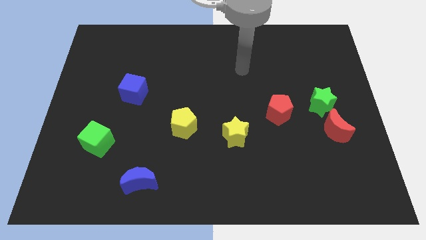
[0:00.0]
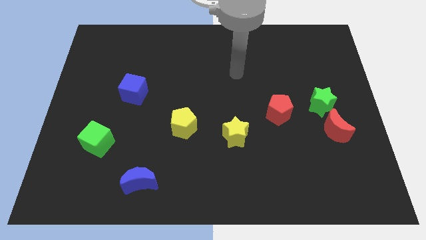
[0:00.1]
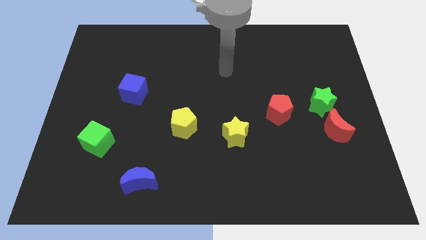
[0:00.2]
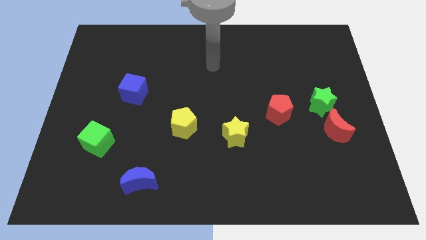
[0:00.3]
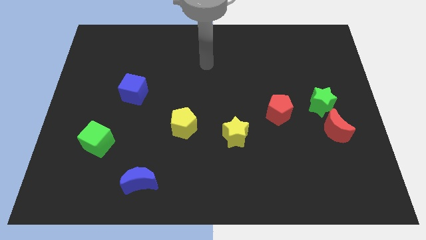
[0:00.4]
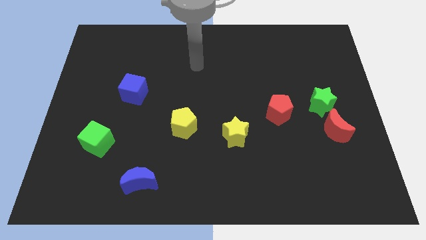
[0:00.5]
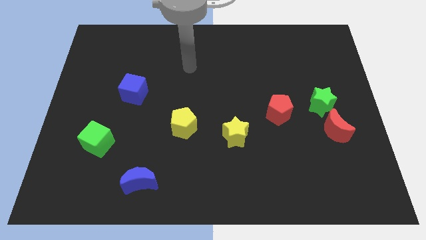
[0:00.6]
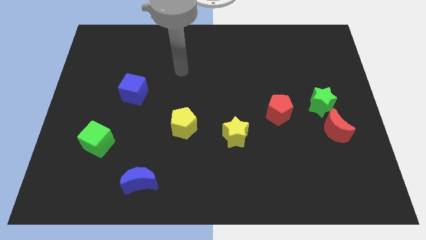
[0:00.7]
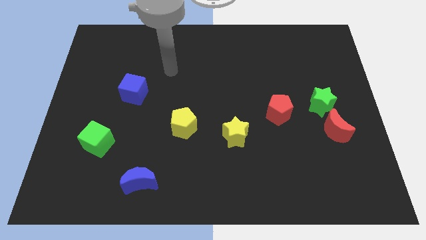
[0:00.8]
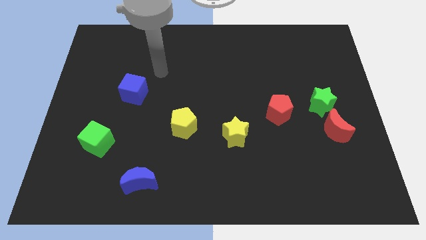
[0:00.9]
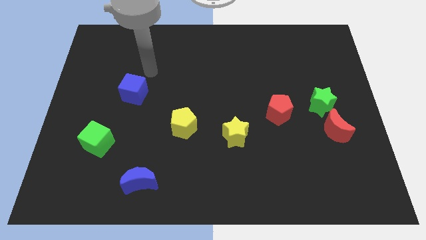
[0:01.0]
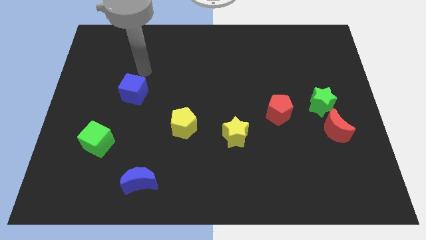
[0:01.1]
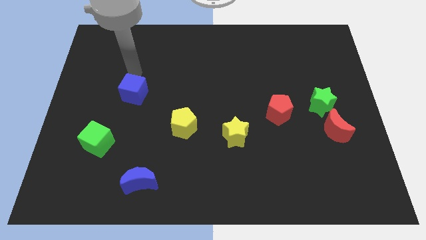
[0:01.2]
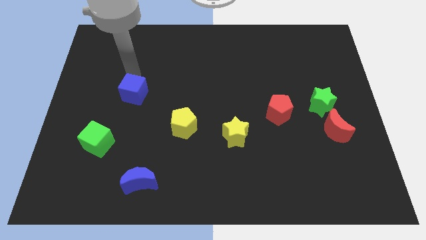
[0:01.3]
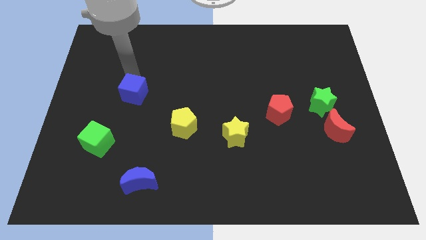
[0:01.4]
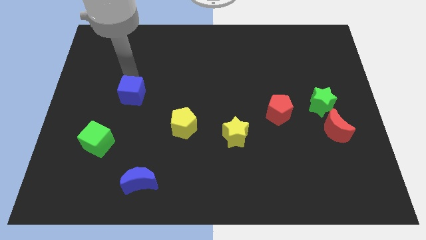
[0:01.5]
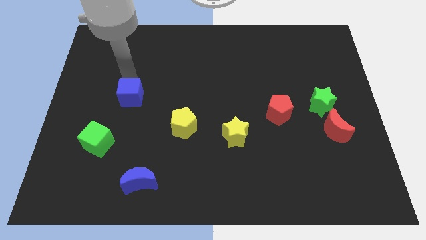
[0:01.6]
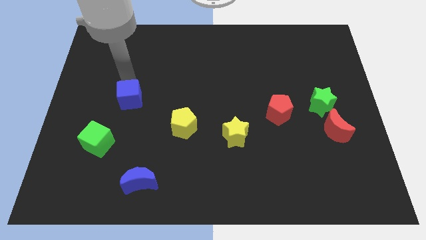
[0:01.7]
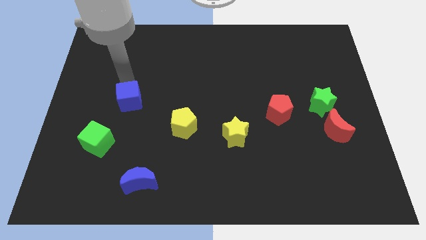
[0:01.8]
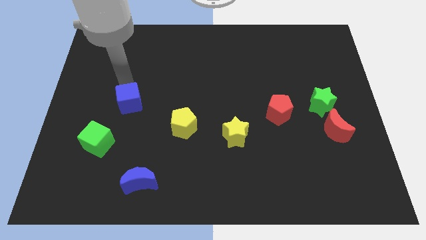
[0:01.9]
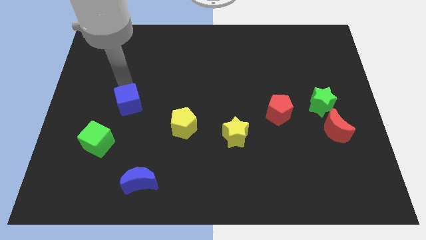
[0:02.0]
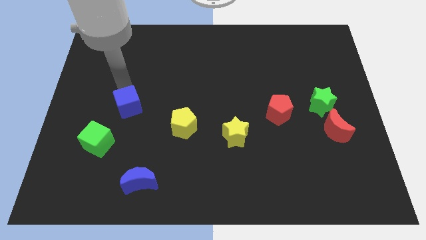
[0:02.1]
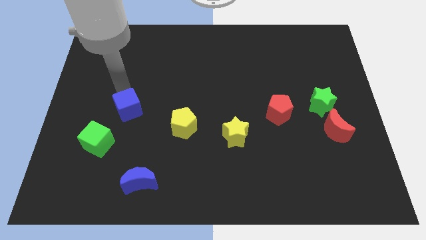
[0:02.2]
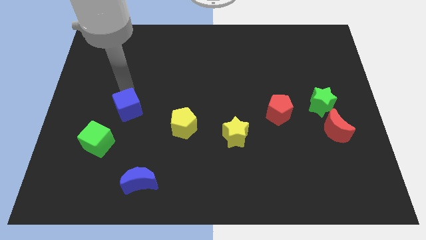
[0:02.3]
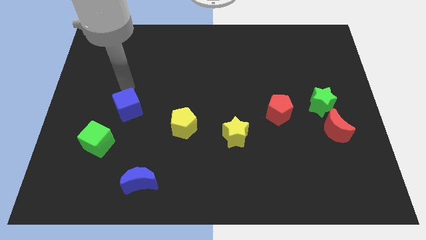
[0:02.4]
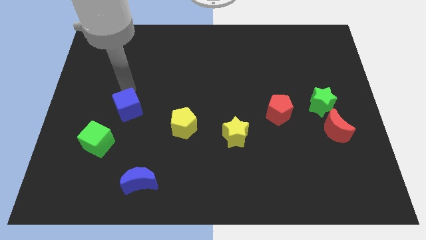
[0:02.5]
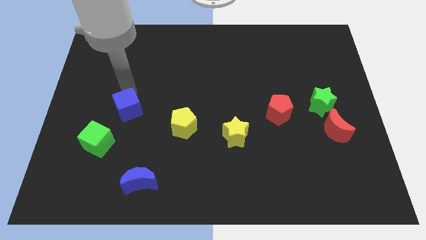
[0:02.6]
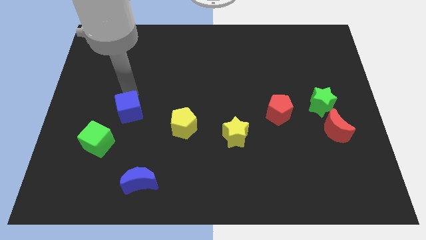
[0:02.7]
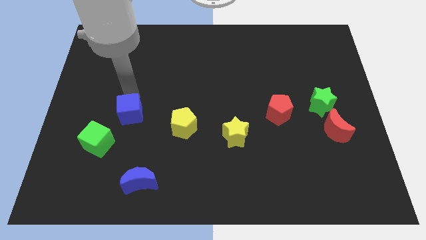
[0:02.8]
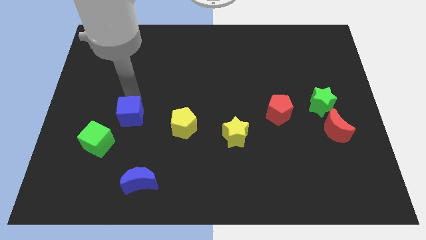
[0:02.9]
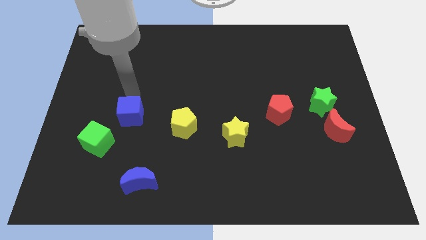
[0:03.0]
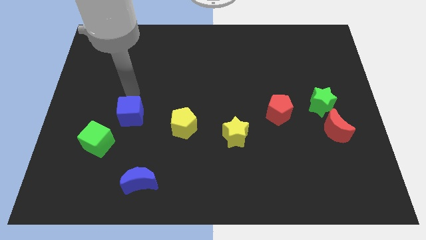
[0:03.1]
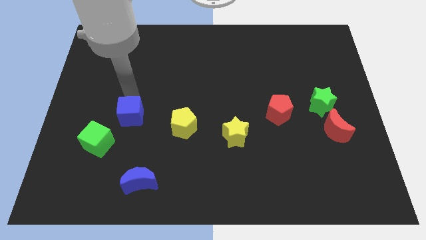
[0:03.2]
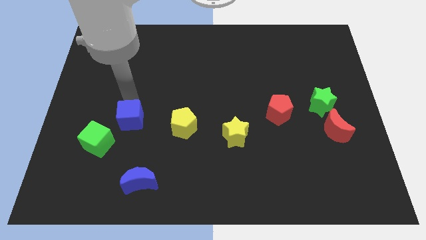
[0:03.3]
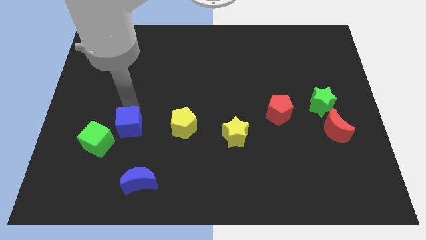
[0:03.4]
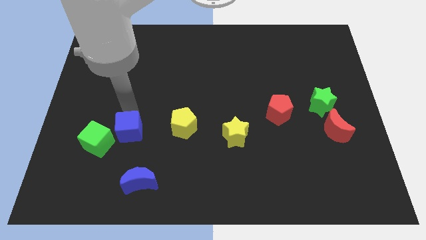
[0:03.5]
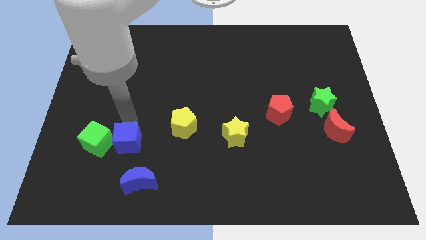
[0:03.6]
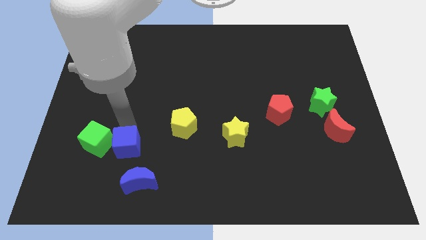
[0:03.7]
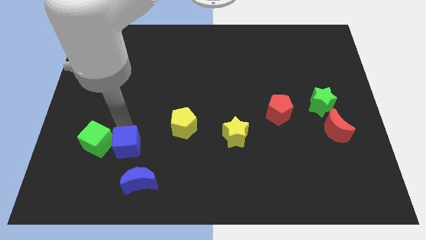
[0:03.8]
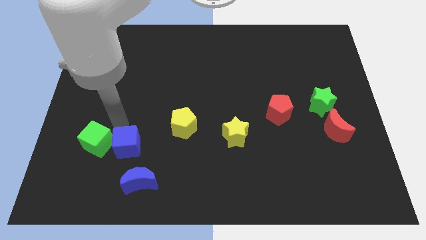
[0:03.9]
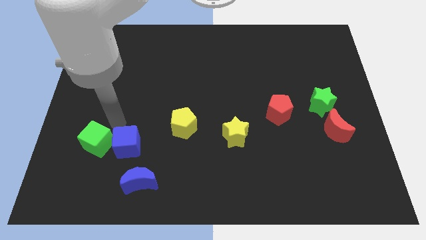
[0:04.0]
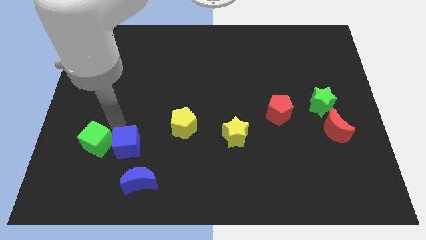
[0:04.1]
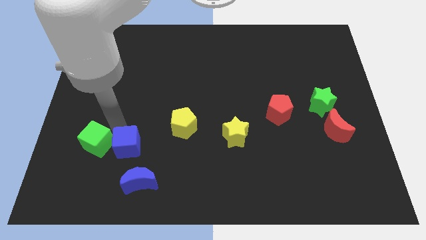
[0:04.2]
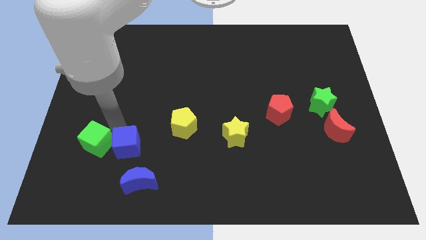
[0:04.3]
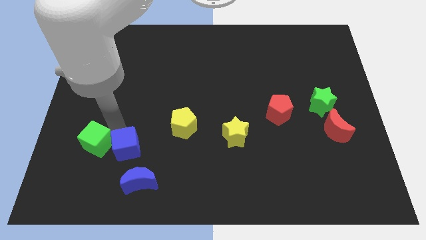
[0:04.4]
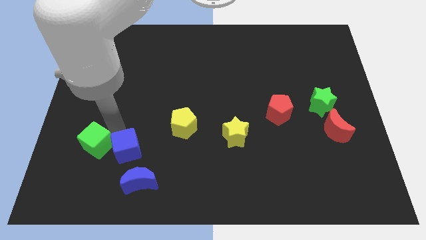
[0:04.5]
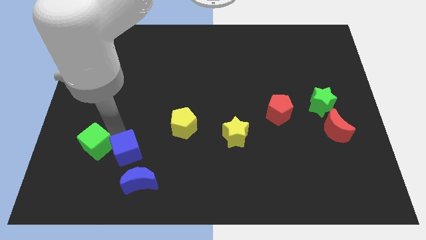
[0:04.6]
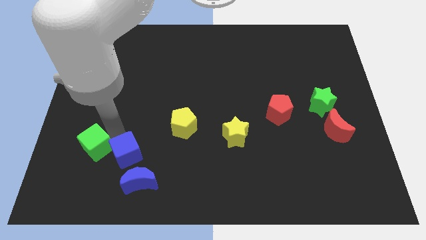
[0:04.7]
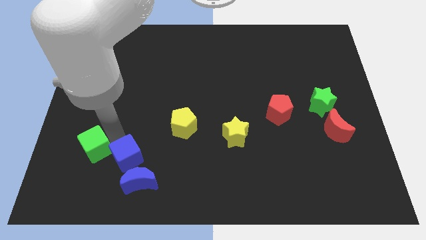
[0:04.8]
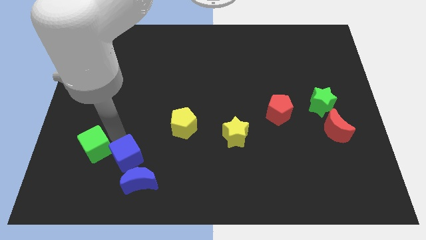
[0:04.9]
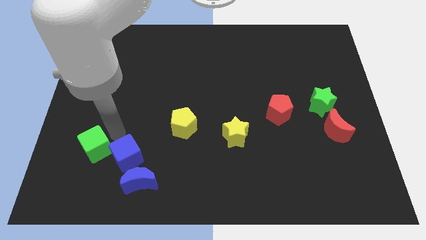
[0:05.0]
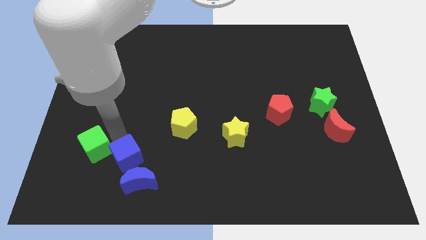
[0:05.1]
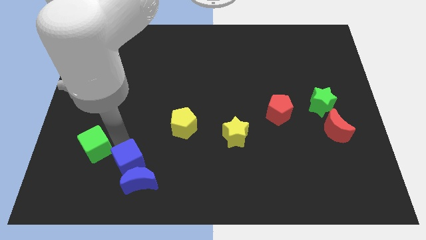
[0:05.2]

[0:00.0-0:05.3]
push the blue cube next to the blue moon

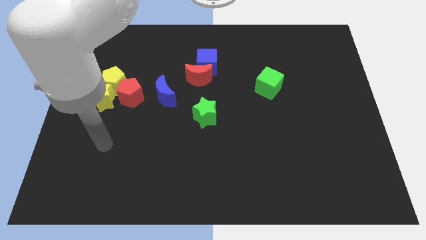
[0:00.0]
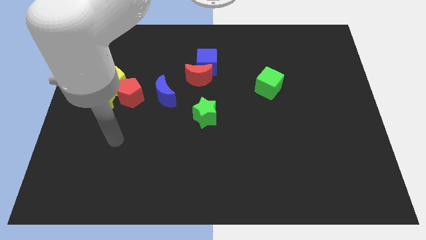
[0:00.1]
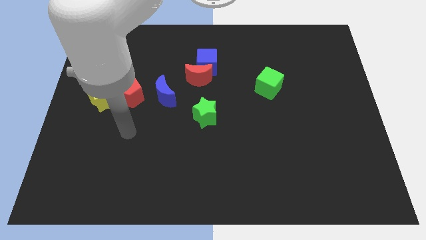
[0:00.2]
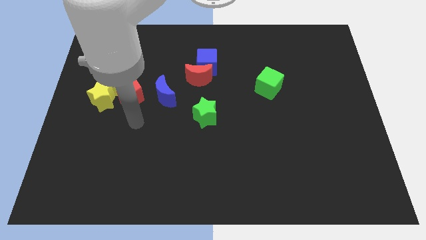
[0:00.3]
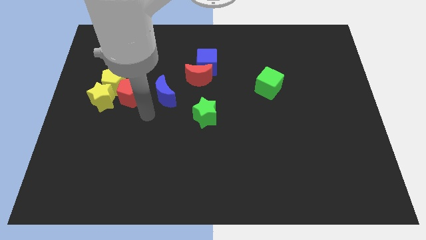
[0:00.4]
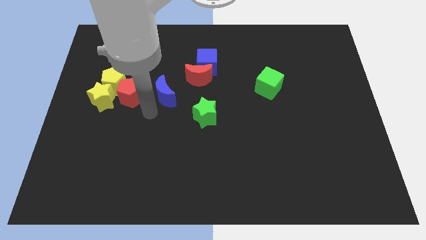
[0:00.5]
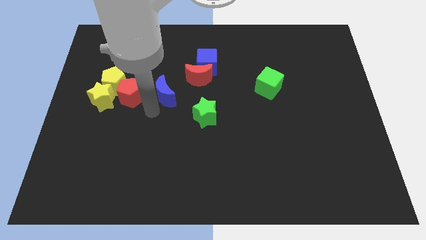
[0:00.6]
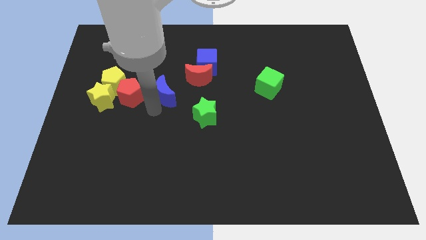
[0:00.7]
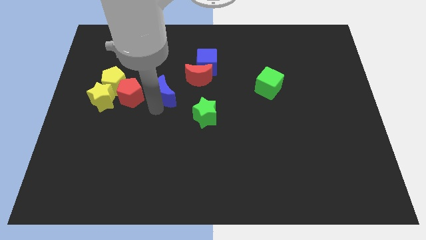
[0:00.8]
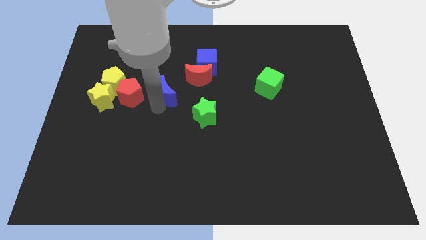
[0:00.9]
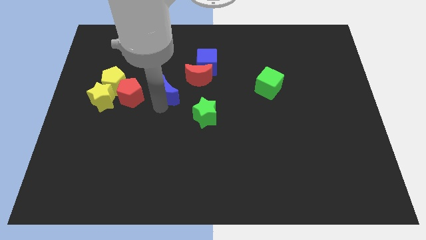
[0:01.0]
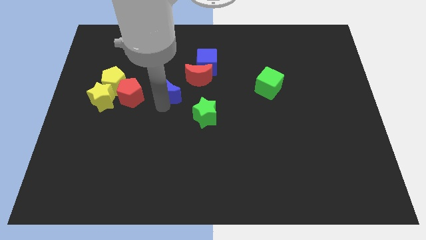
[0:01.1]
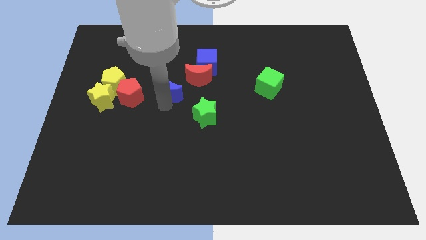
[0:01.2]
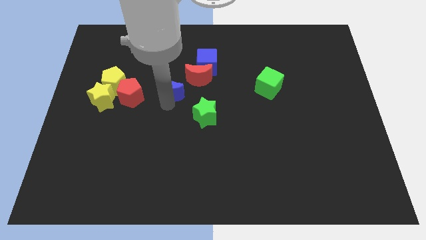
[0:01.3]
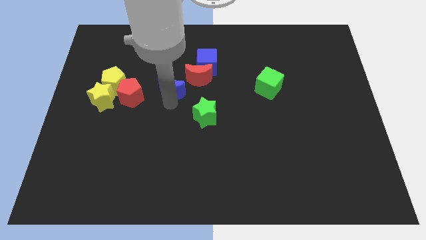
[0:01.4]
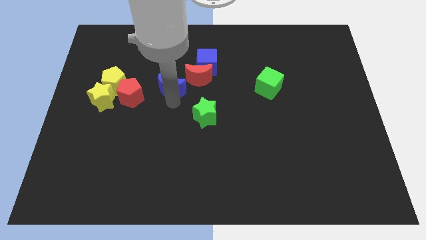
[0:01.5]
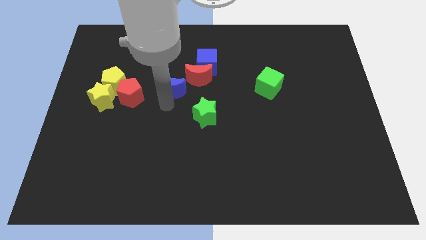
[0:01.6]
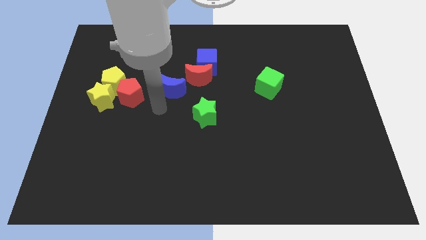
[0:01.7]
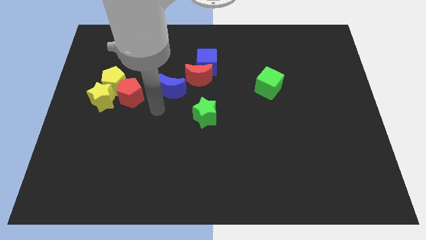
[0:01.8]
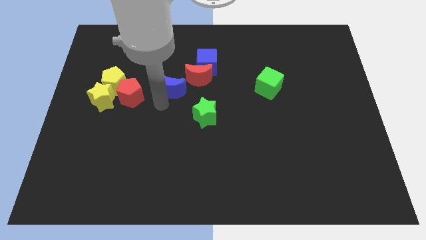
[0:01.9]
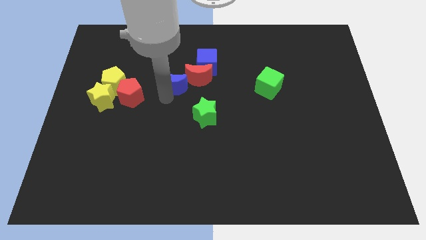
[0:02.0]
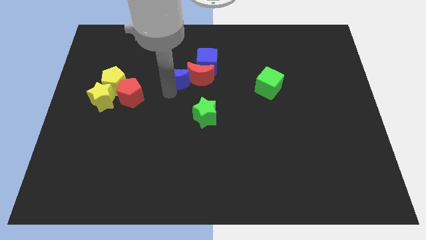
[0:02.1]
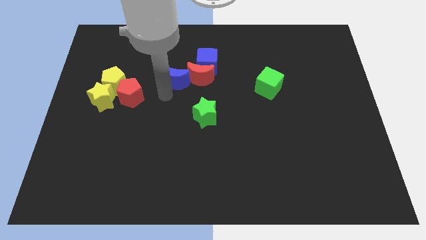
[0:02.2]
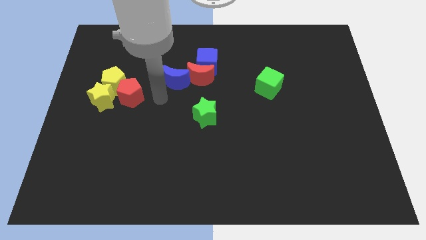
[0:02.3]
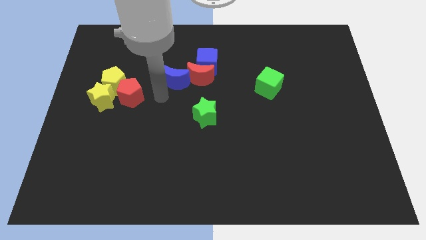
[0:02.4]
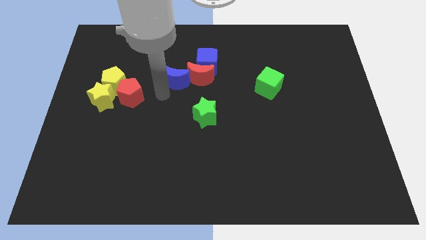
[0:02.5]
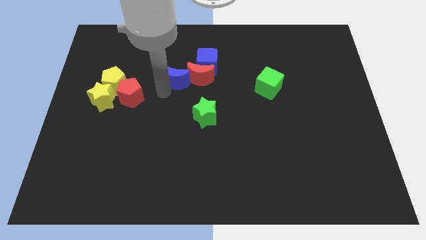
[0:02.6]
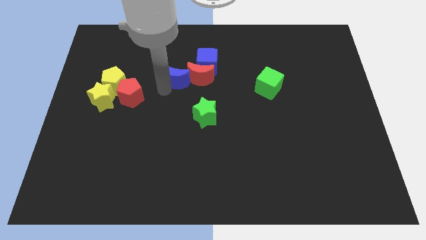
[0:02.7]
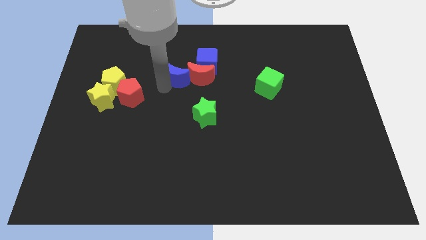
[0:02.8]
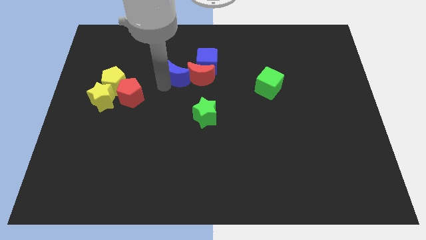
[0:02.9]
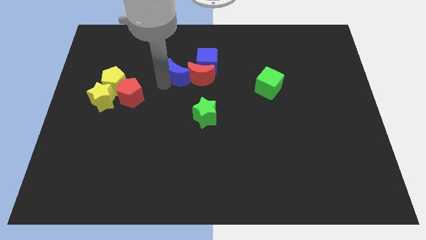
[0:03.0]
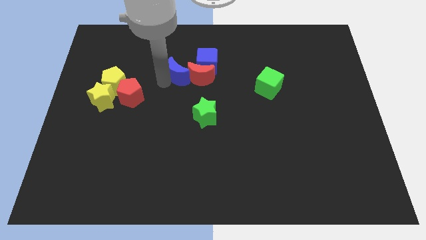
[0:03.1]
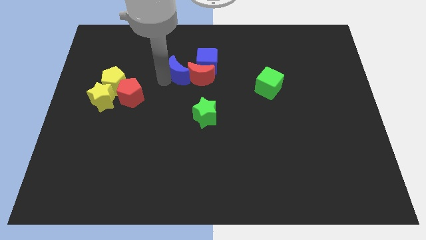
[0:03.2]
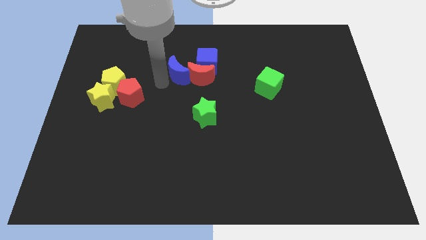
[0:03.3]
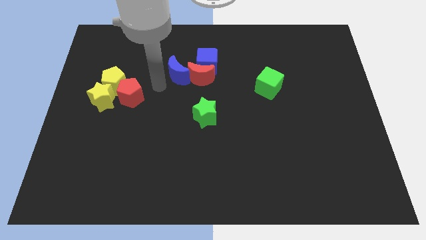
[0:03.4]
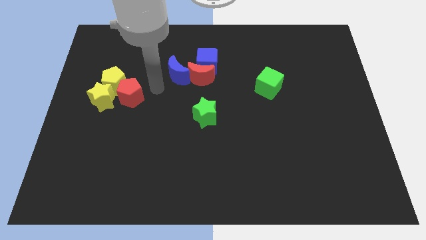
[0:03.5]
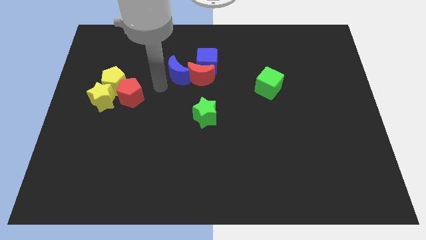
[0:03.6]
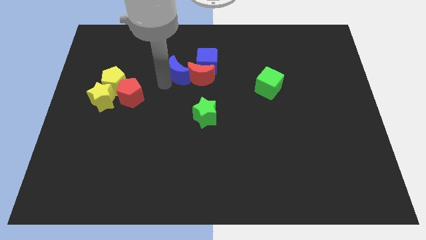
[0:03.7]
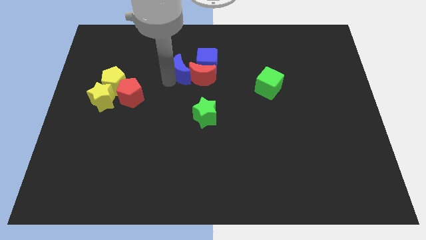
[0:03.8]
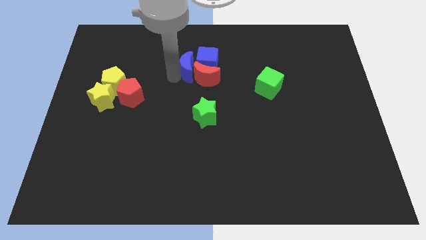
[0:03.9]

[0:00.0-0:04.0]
slide the blue moon close to the blue cube
